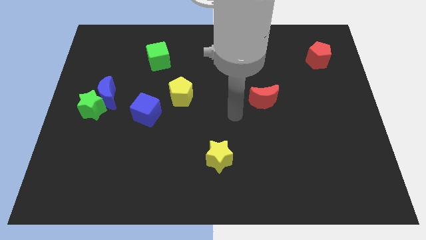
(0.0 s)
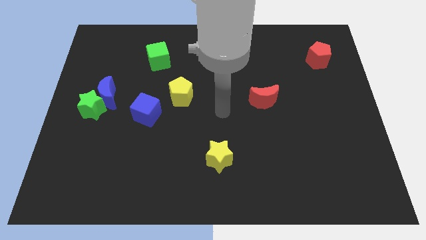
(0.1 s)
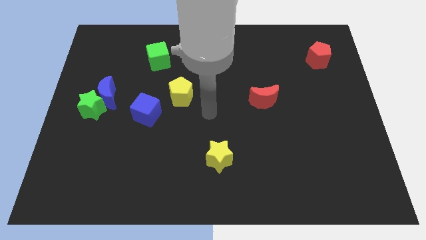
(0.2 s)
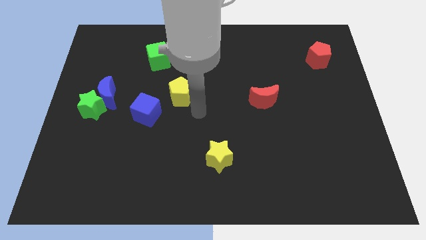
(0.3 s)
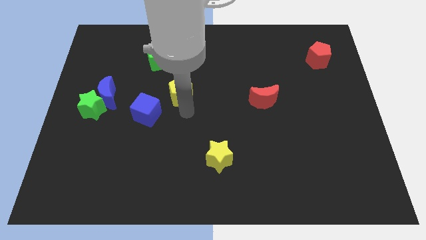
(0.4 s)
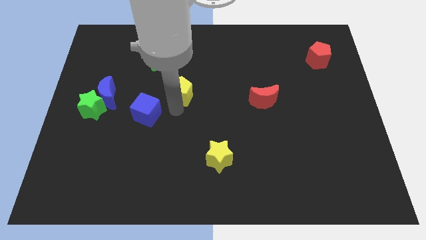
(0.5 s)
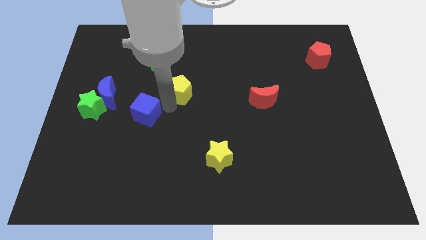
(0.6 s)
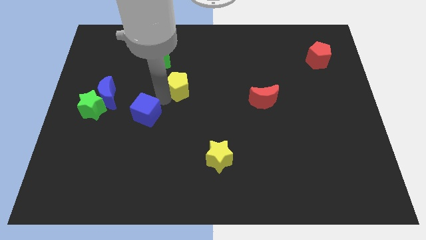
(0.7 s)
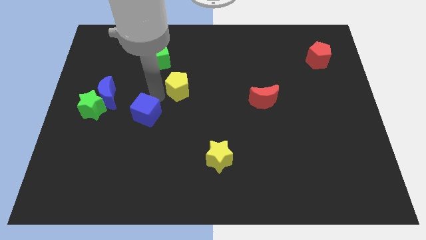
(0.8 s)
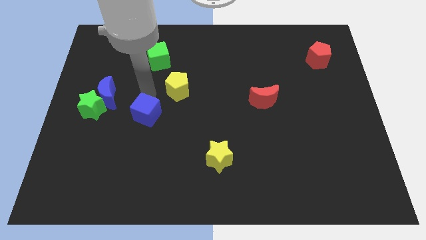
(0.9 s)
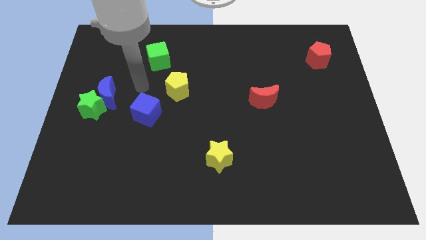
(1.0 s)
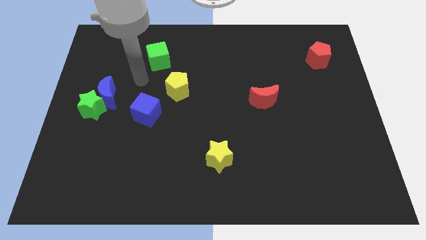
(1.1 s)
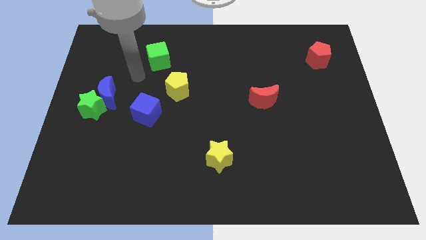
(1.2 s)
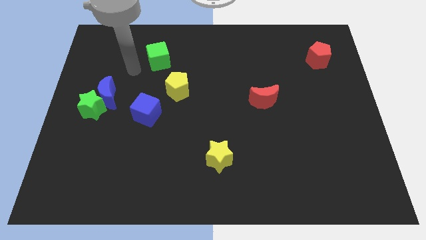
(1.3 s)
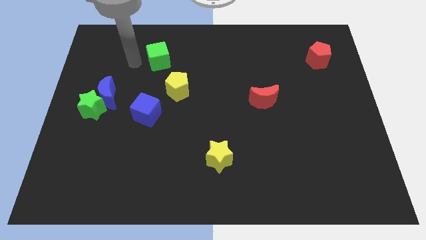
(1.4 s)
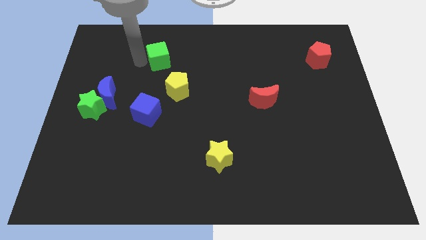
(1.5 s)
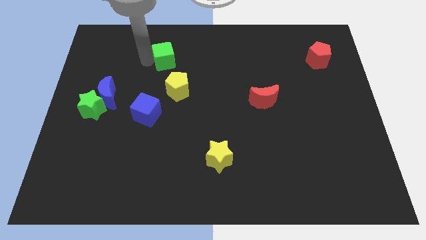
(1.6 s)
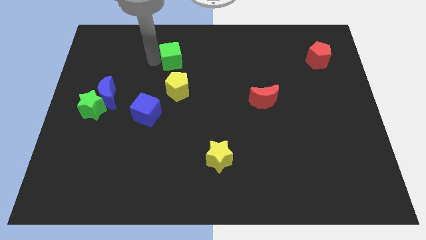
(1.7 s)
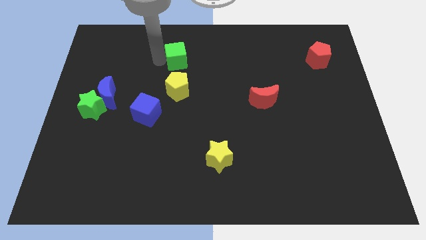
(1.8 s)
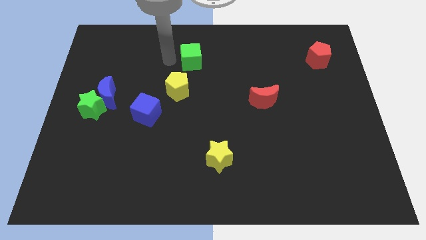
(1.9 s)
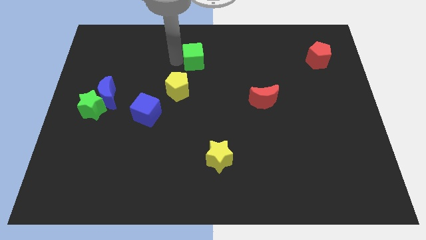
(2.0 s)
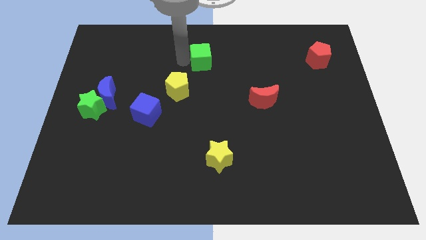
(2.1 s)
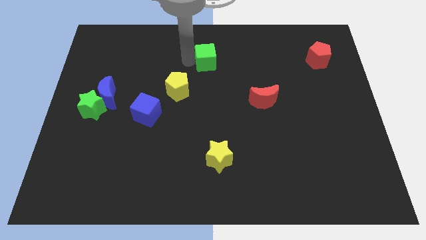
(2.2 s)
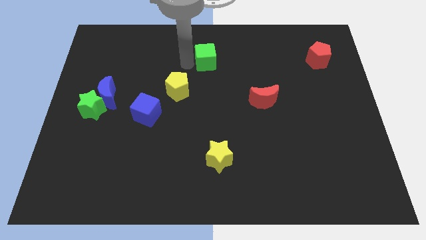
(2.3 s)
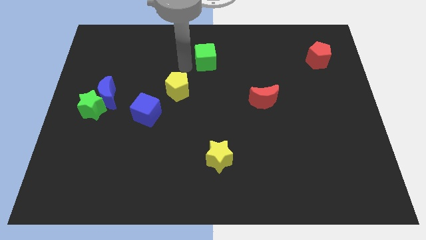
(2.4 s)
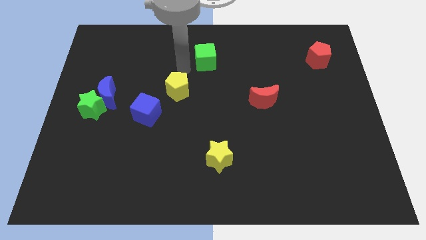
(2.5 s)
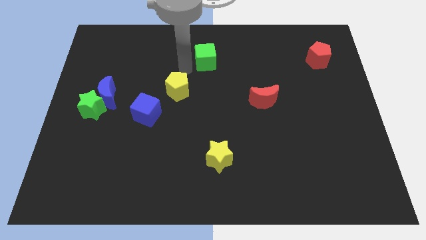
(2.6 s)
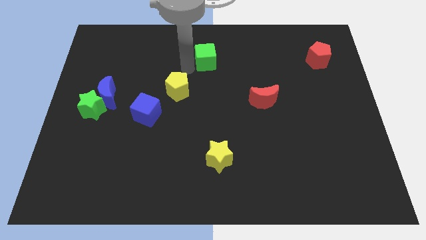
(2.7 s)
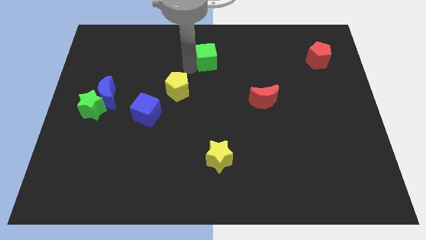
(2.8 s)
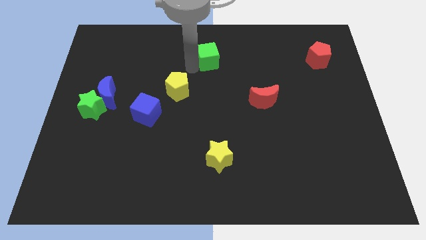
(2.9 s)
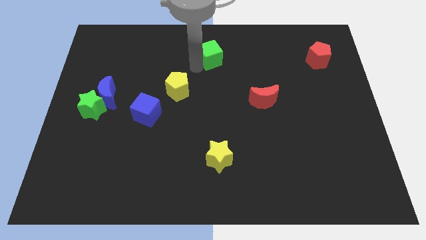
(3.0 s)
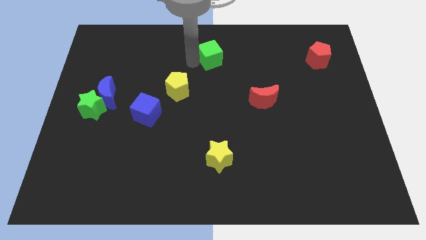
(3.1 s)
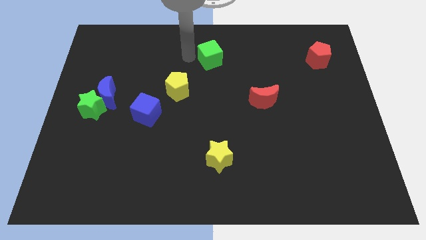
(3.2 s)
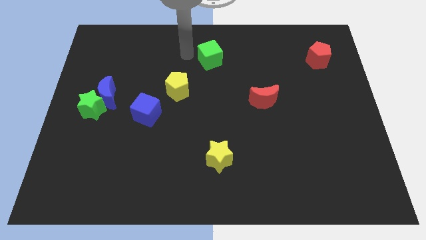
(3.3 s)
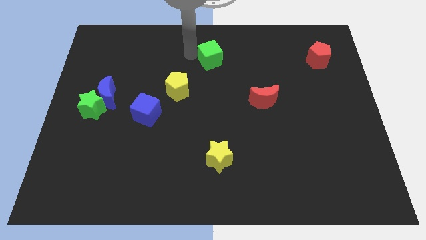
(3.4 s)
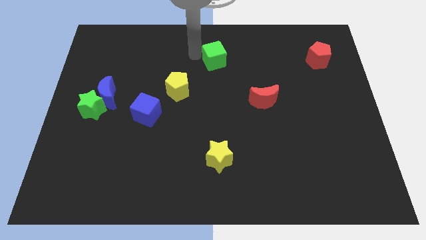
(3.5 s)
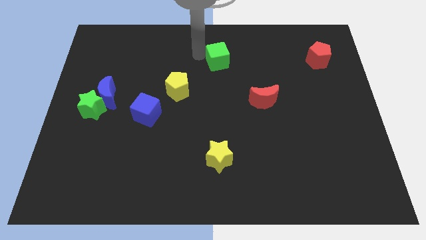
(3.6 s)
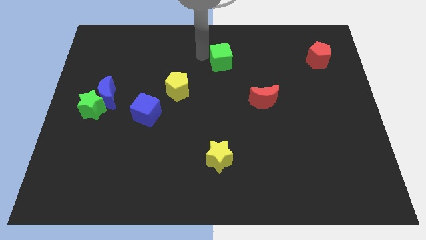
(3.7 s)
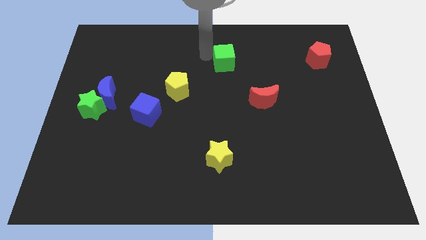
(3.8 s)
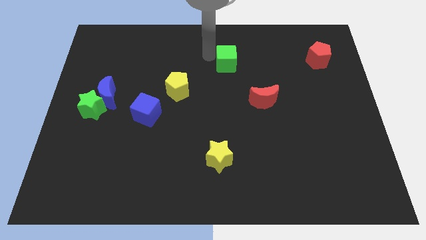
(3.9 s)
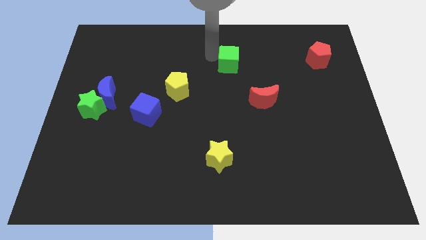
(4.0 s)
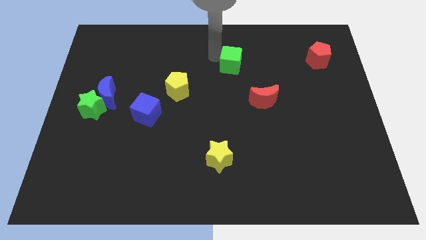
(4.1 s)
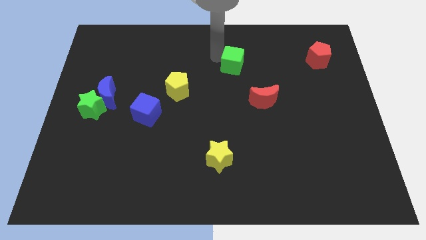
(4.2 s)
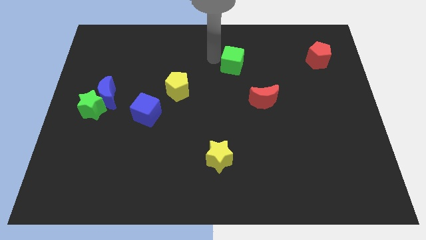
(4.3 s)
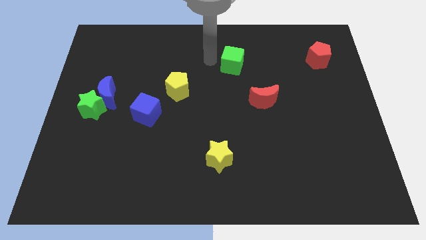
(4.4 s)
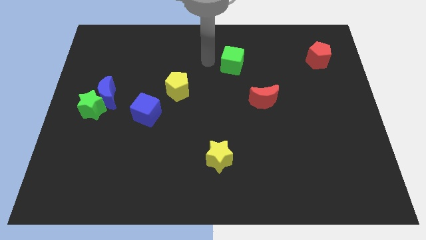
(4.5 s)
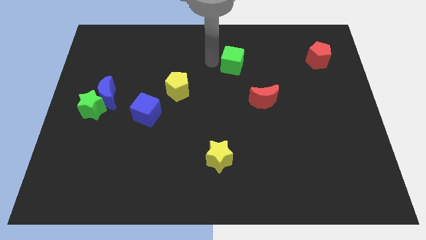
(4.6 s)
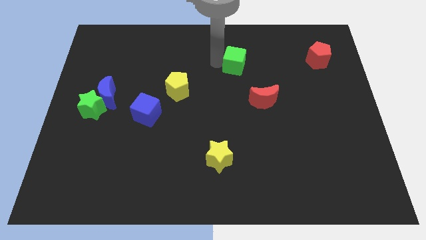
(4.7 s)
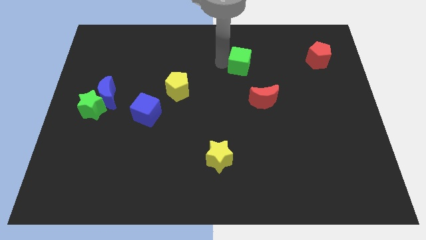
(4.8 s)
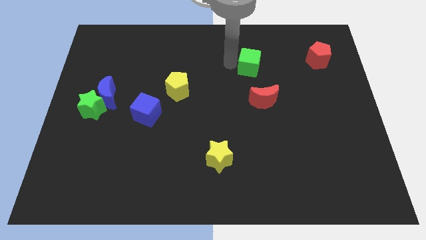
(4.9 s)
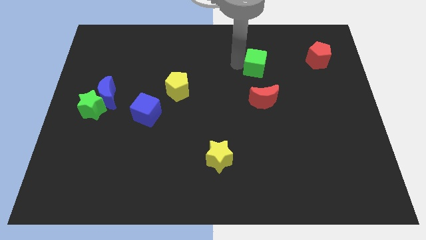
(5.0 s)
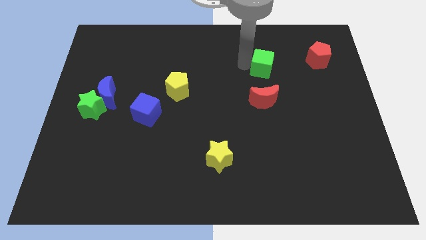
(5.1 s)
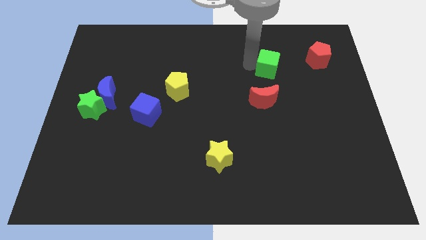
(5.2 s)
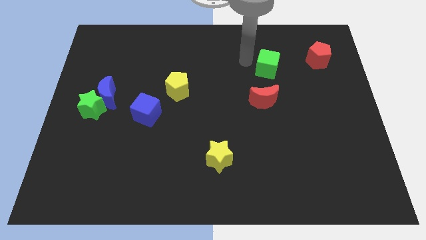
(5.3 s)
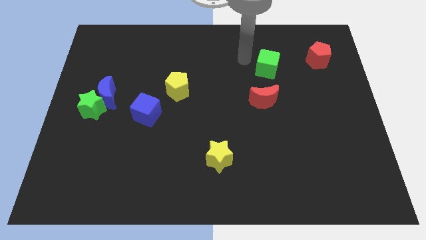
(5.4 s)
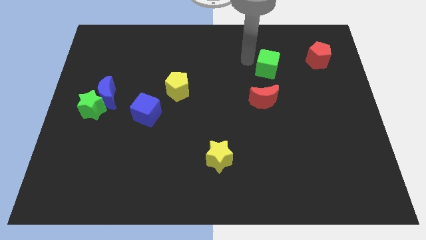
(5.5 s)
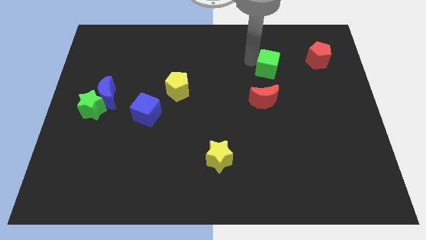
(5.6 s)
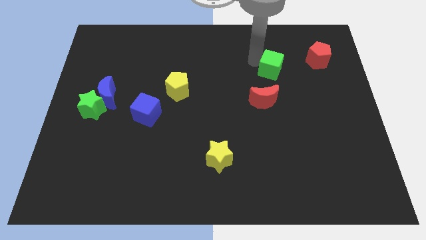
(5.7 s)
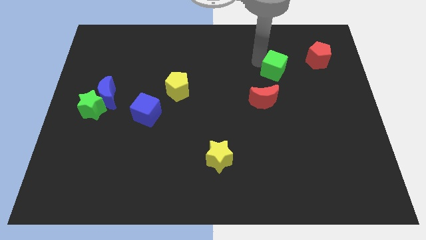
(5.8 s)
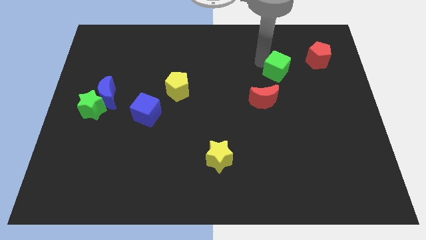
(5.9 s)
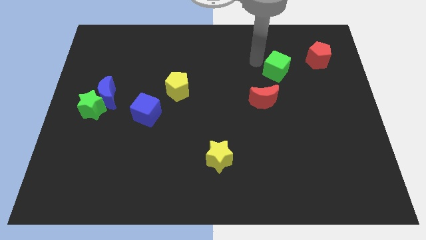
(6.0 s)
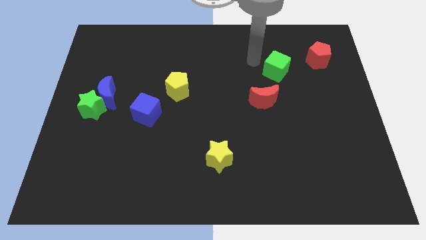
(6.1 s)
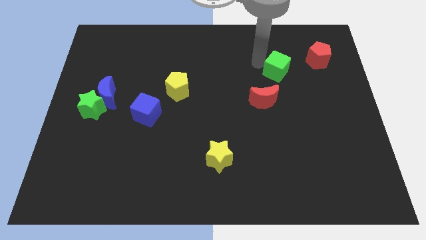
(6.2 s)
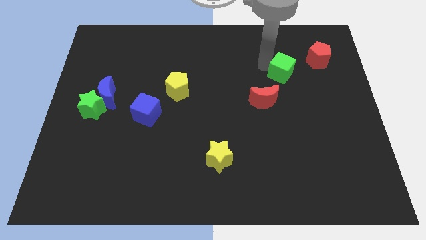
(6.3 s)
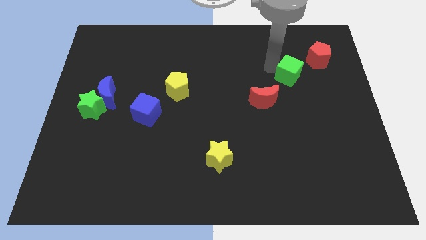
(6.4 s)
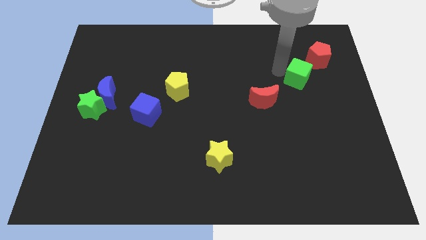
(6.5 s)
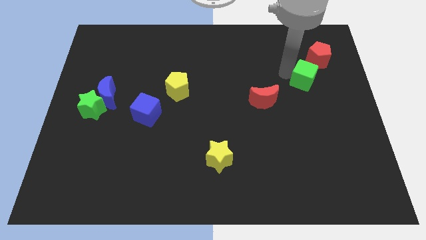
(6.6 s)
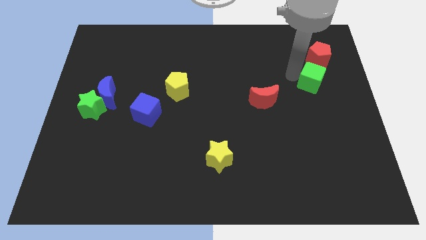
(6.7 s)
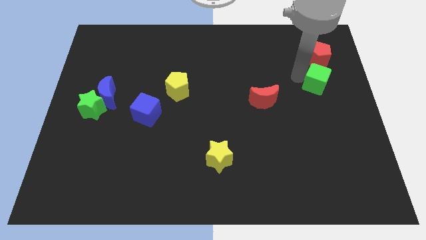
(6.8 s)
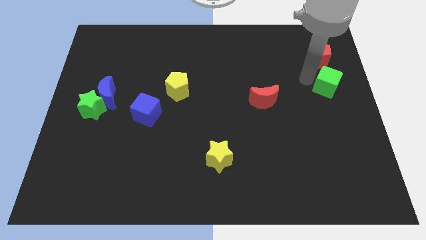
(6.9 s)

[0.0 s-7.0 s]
push the green cube to the right side of the board
